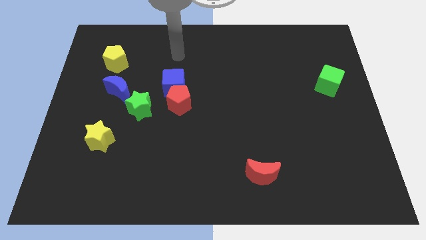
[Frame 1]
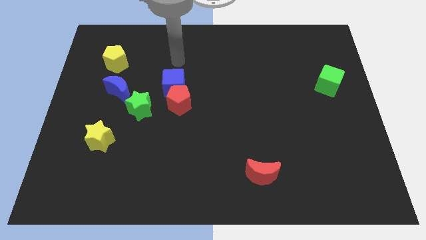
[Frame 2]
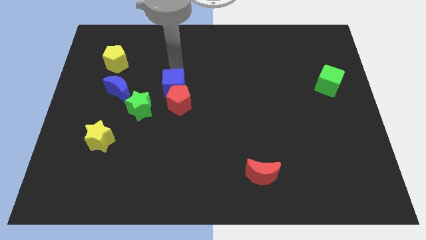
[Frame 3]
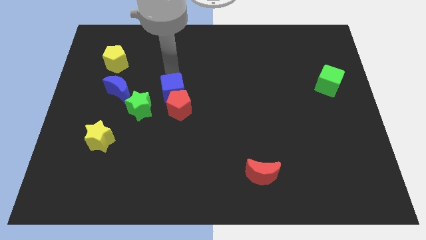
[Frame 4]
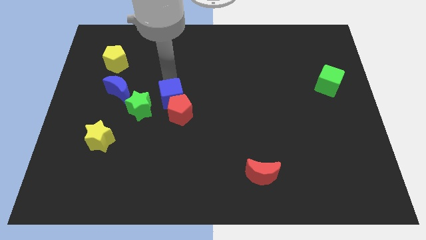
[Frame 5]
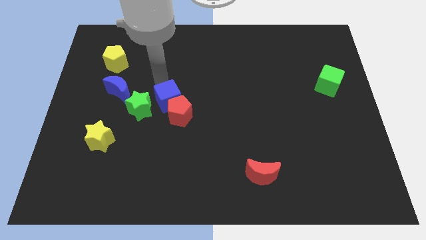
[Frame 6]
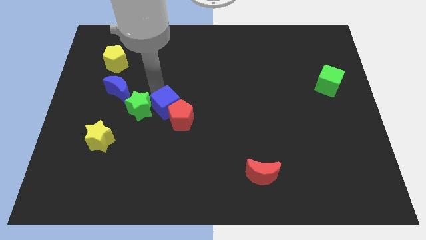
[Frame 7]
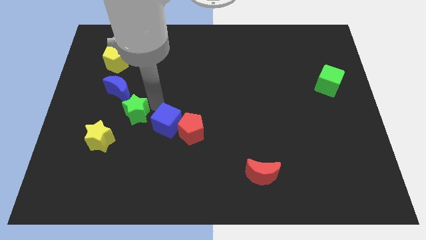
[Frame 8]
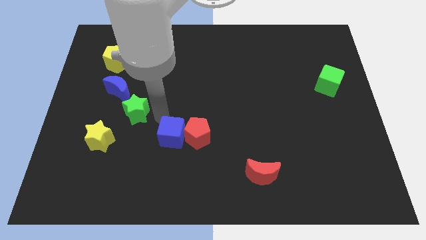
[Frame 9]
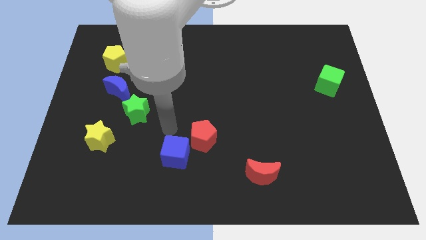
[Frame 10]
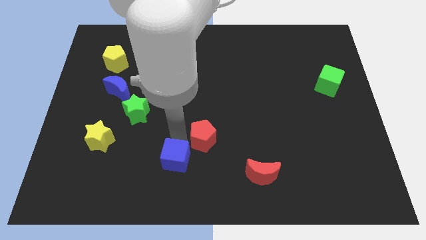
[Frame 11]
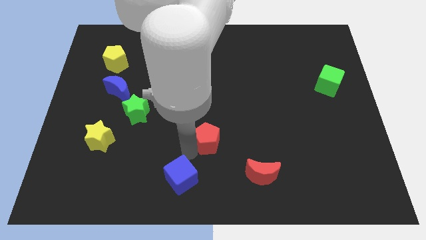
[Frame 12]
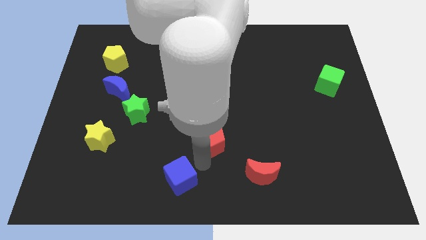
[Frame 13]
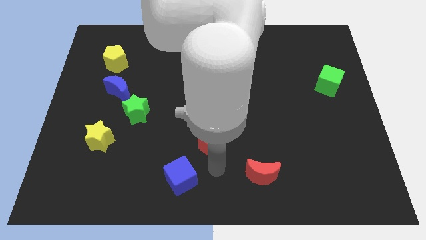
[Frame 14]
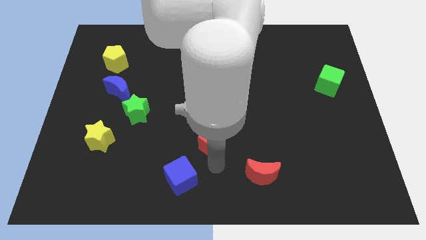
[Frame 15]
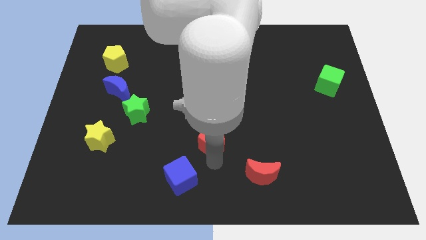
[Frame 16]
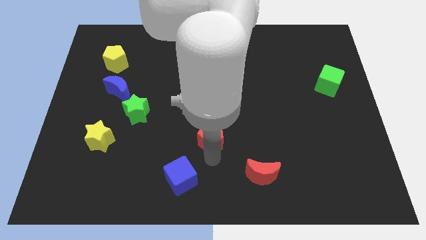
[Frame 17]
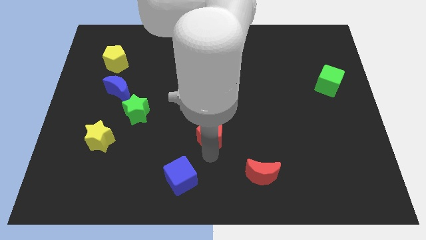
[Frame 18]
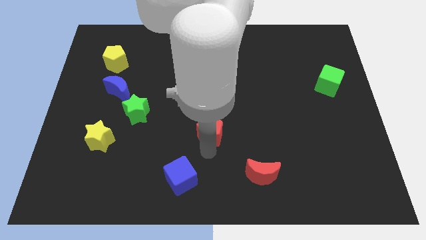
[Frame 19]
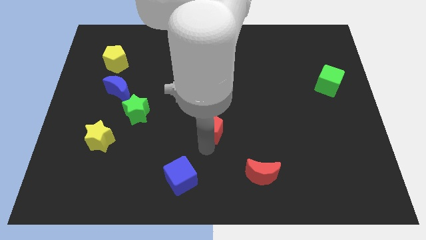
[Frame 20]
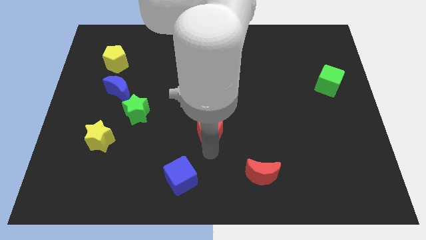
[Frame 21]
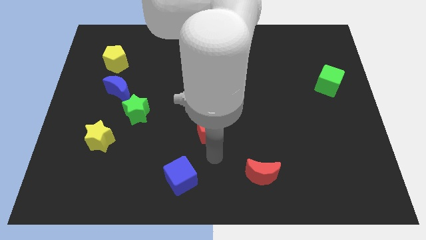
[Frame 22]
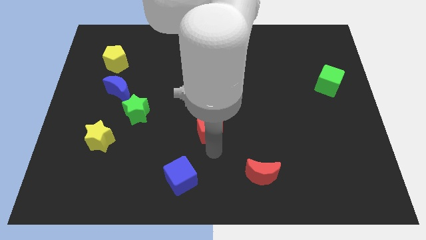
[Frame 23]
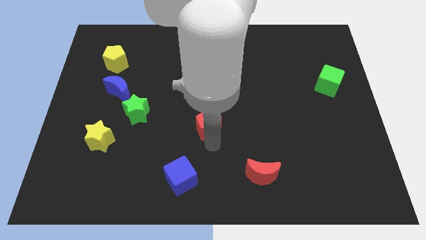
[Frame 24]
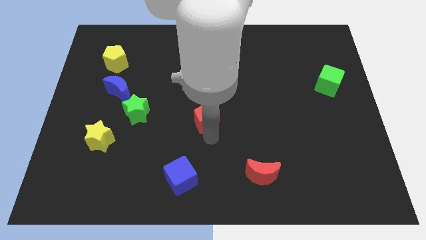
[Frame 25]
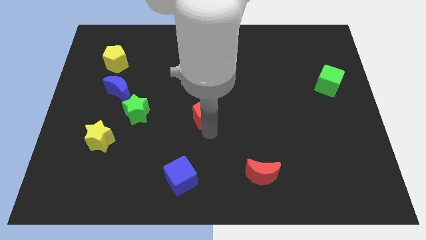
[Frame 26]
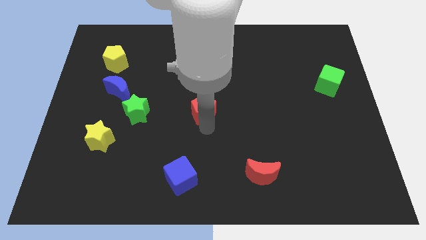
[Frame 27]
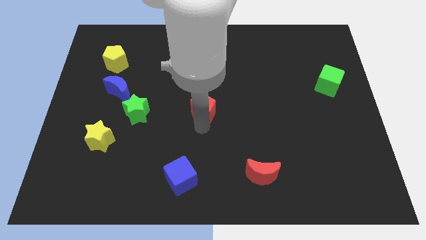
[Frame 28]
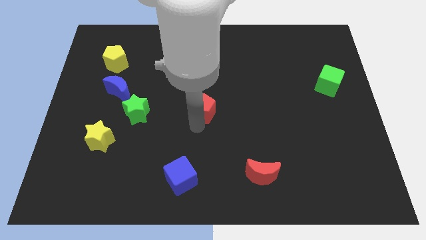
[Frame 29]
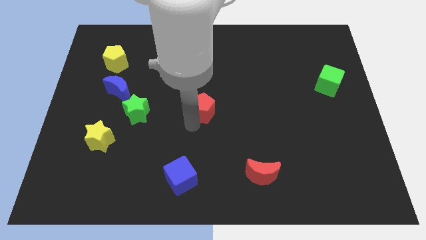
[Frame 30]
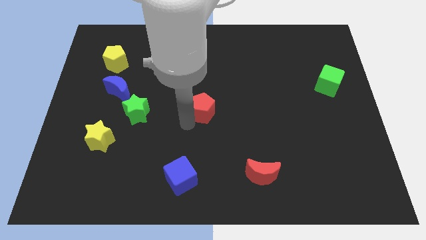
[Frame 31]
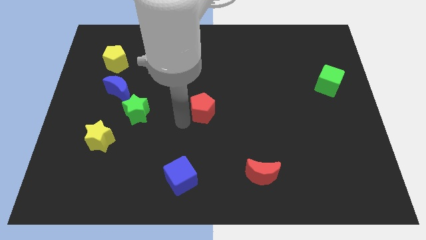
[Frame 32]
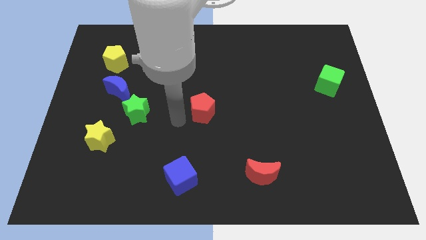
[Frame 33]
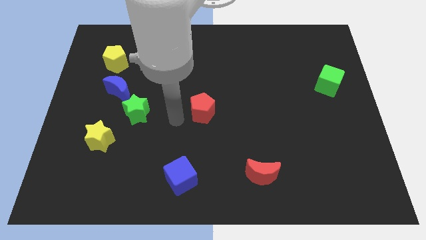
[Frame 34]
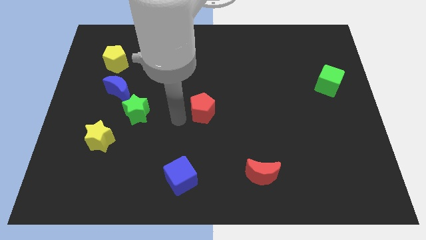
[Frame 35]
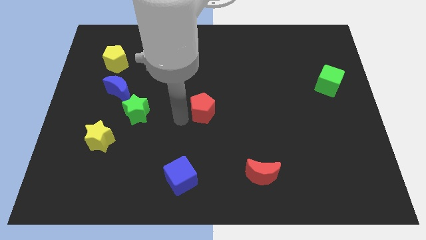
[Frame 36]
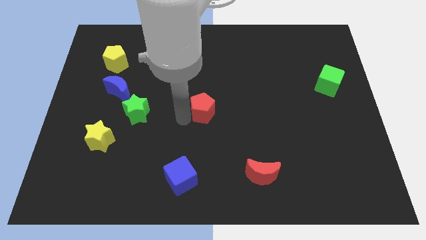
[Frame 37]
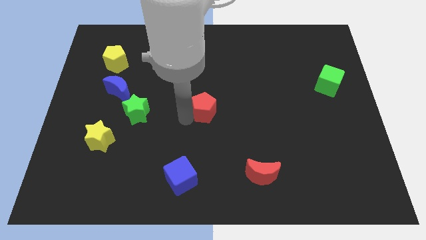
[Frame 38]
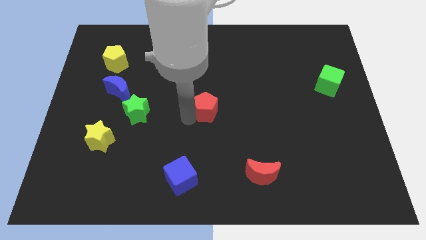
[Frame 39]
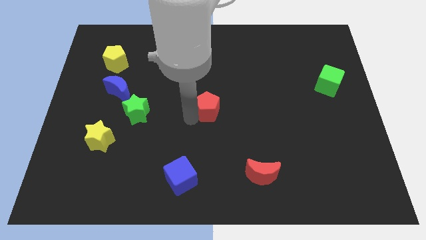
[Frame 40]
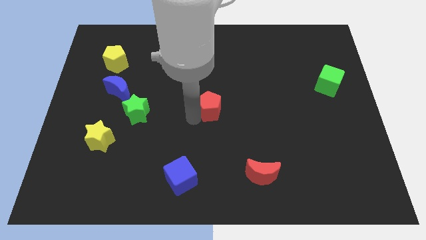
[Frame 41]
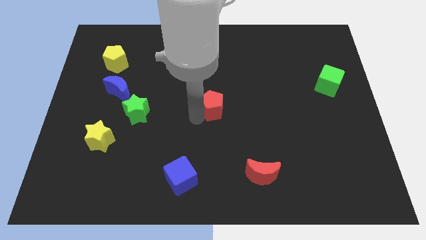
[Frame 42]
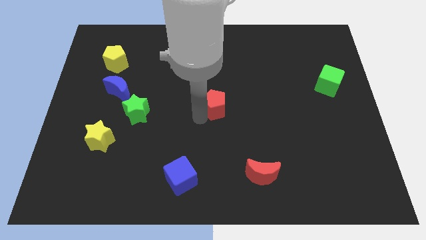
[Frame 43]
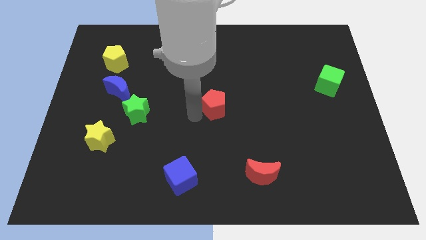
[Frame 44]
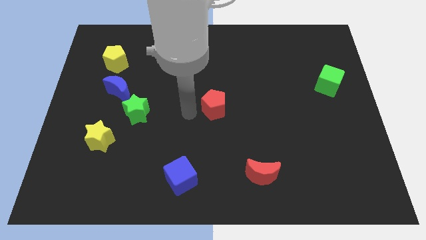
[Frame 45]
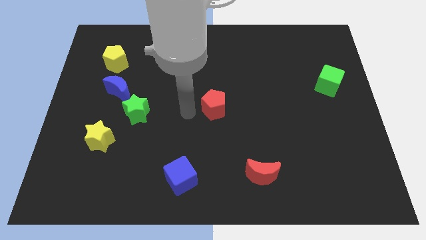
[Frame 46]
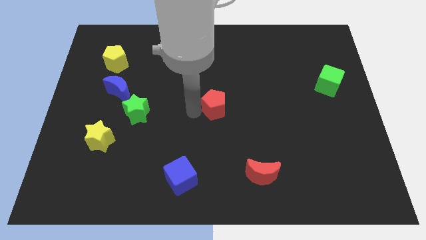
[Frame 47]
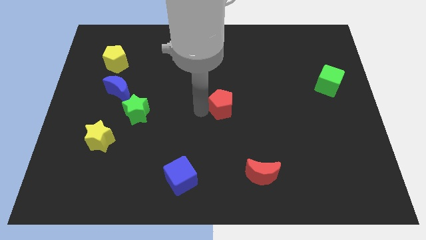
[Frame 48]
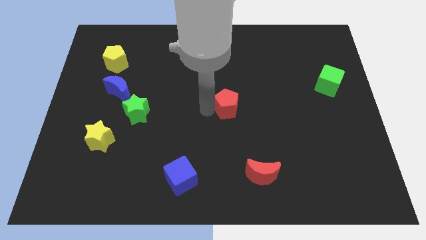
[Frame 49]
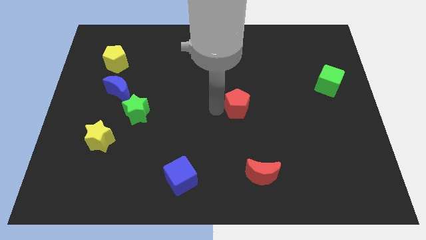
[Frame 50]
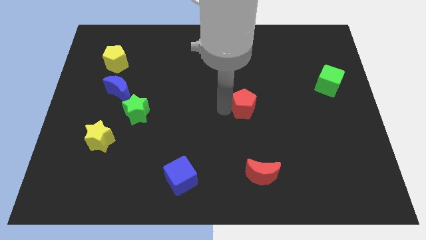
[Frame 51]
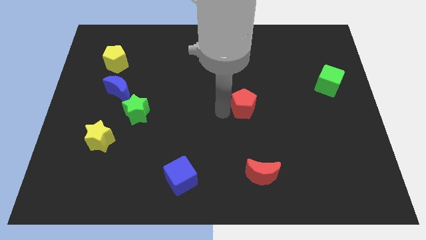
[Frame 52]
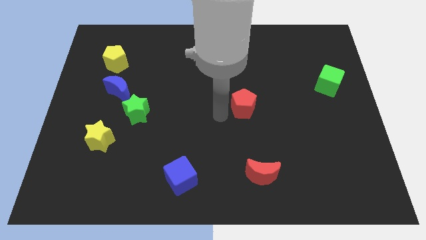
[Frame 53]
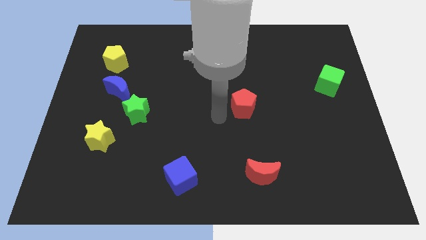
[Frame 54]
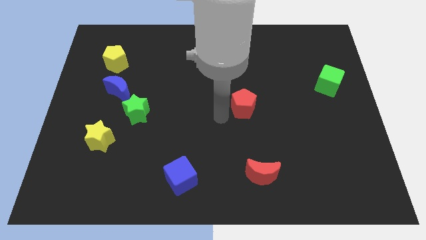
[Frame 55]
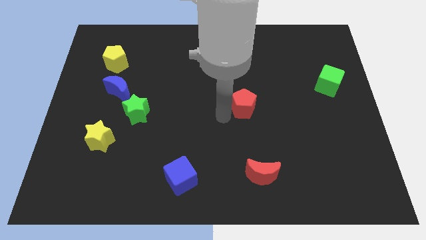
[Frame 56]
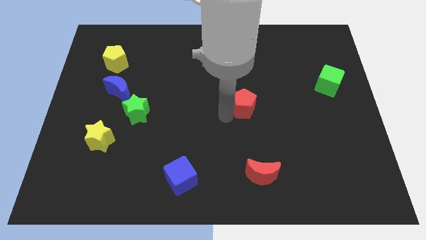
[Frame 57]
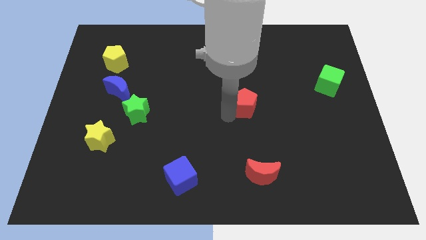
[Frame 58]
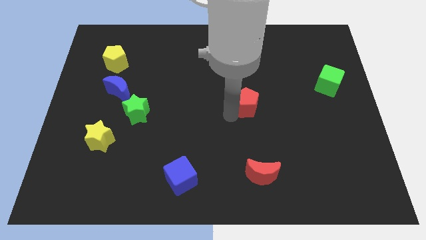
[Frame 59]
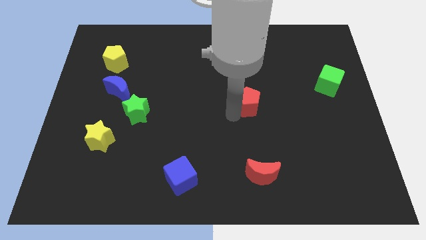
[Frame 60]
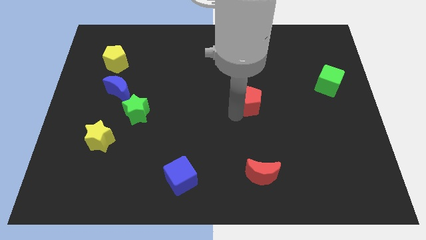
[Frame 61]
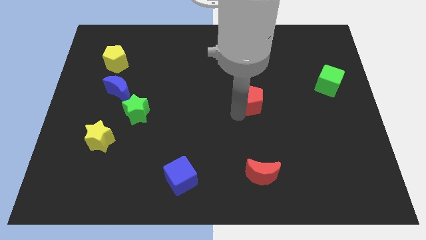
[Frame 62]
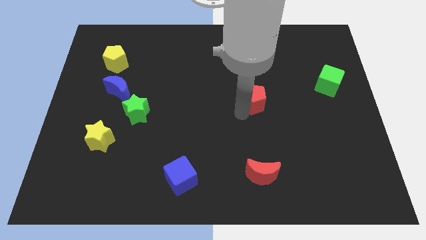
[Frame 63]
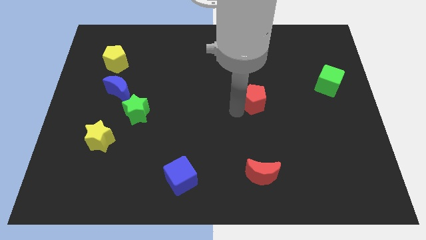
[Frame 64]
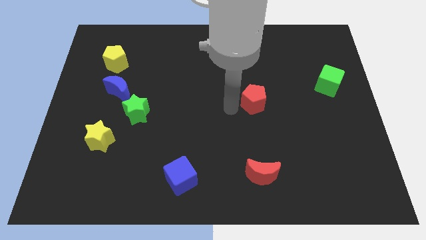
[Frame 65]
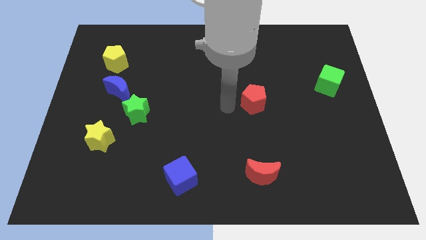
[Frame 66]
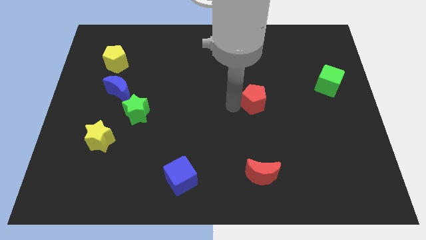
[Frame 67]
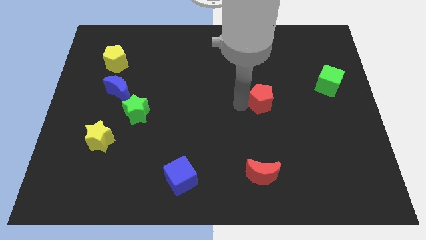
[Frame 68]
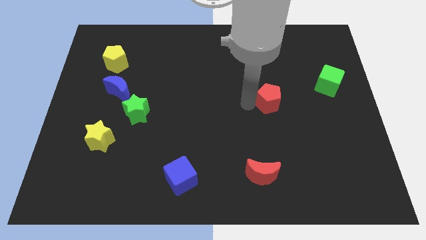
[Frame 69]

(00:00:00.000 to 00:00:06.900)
move the red pentagon to the right

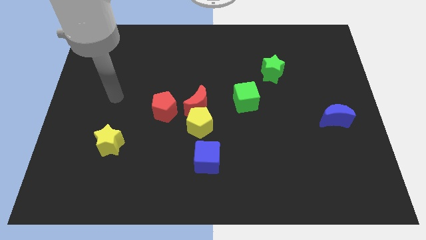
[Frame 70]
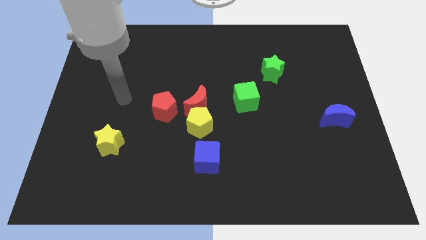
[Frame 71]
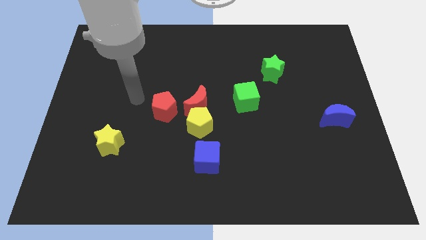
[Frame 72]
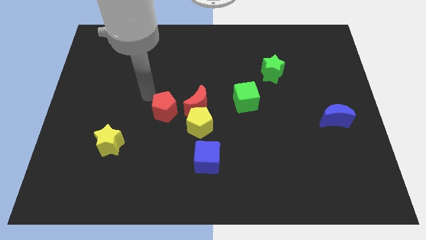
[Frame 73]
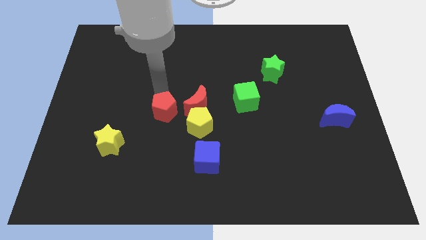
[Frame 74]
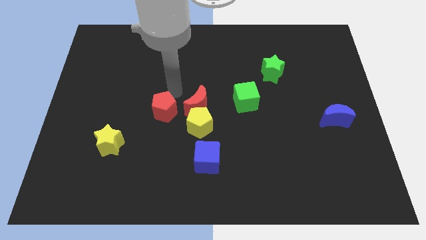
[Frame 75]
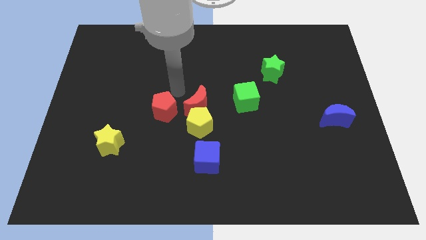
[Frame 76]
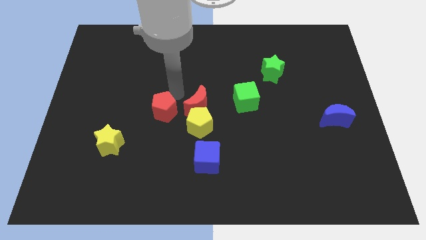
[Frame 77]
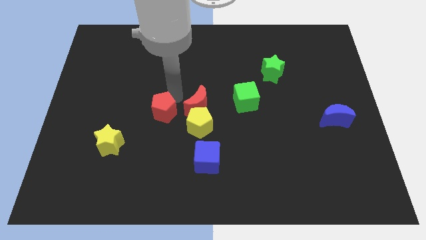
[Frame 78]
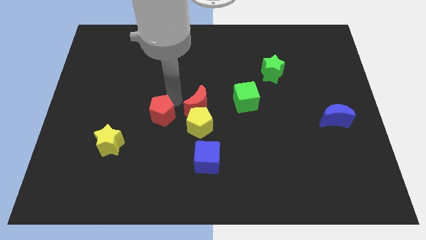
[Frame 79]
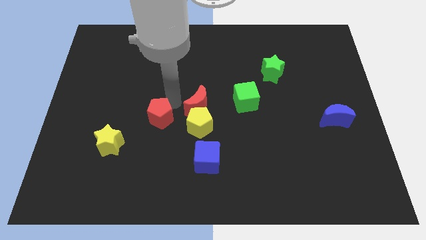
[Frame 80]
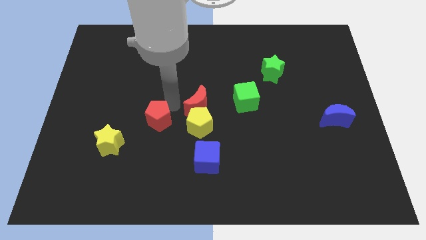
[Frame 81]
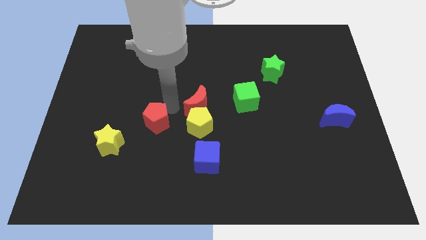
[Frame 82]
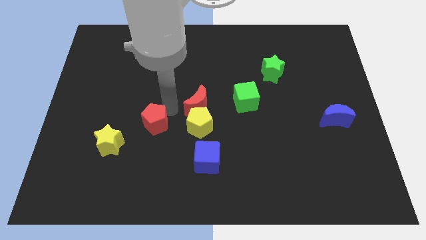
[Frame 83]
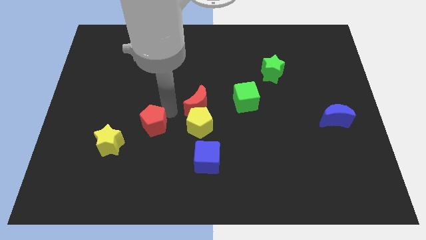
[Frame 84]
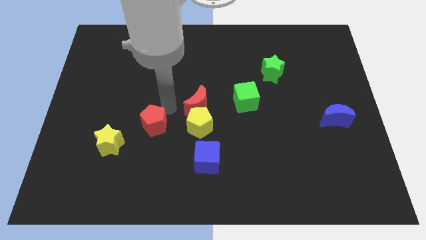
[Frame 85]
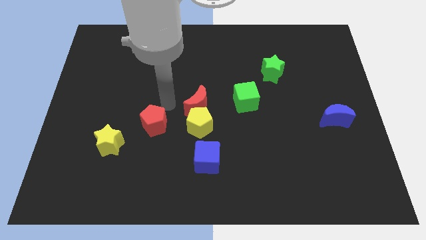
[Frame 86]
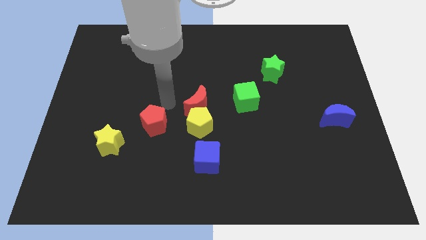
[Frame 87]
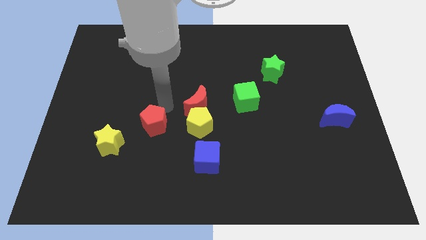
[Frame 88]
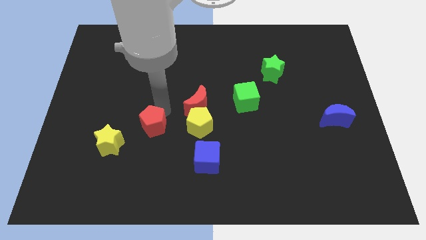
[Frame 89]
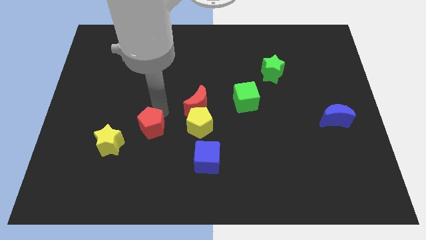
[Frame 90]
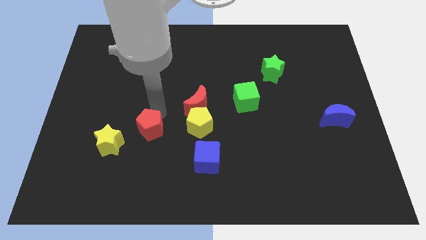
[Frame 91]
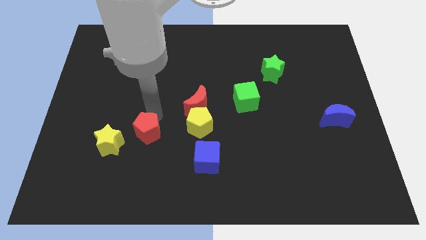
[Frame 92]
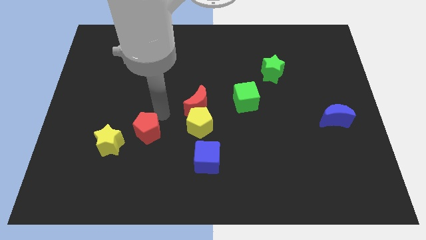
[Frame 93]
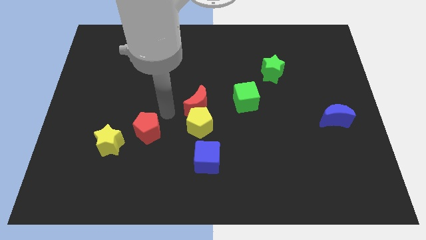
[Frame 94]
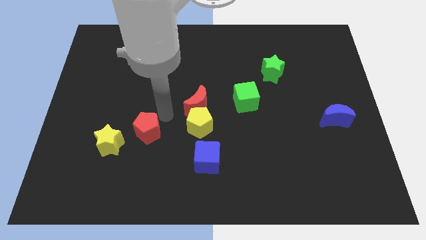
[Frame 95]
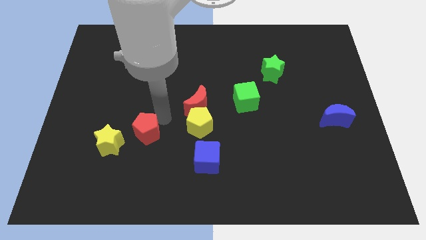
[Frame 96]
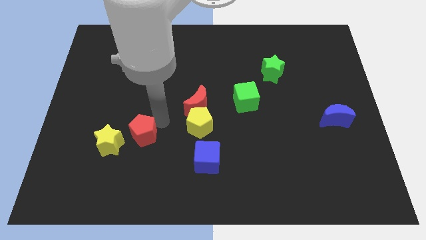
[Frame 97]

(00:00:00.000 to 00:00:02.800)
push the red pentagon slightly downwards and left diagonally
